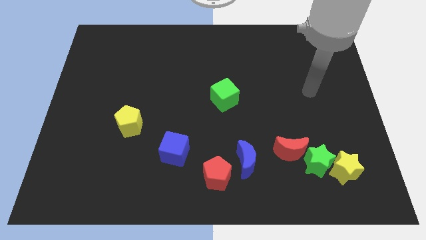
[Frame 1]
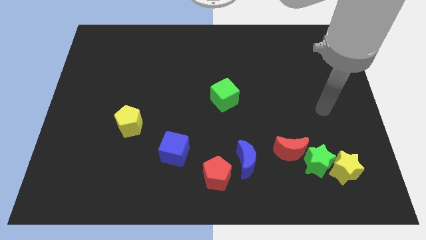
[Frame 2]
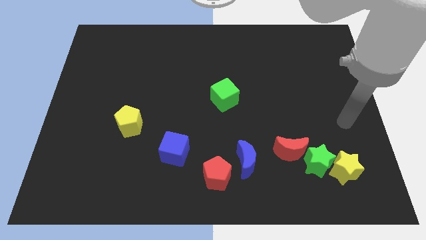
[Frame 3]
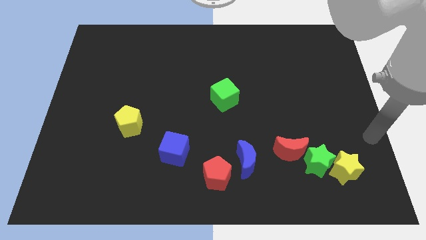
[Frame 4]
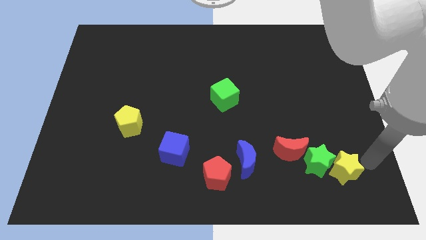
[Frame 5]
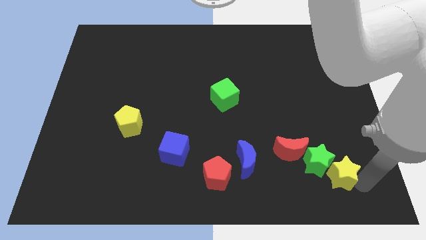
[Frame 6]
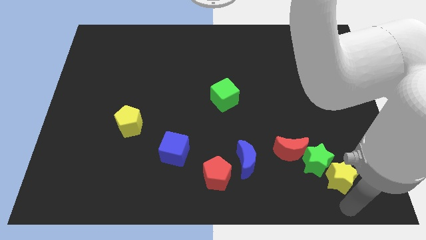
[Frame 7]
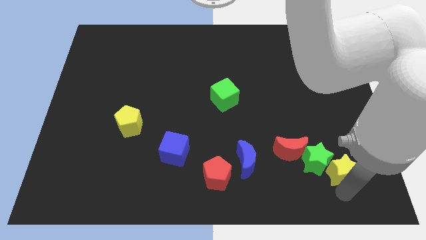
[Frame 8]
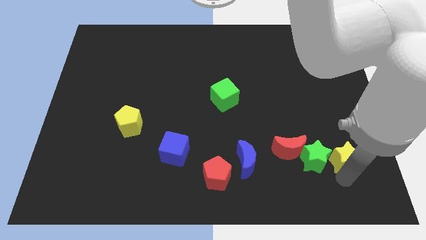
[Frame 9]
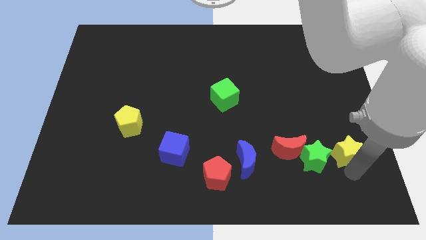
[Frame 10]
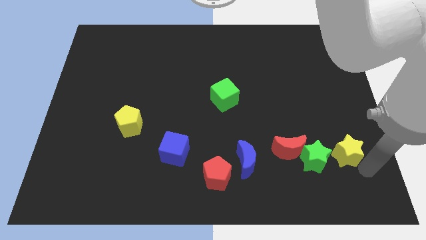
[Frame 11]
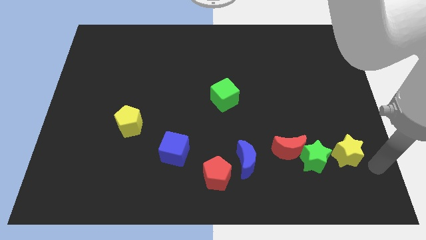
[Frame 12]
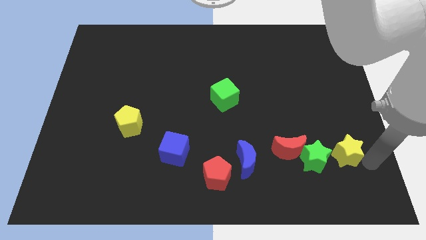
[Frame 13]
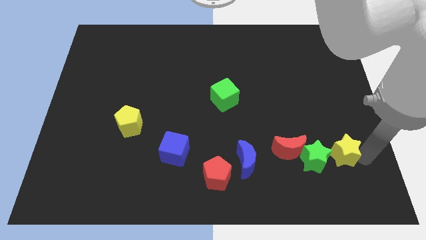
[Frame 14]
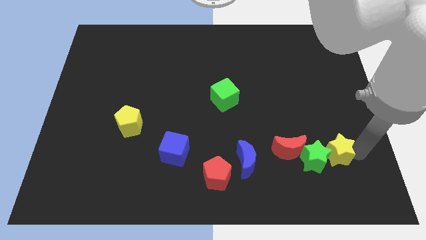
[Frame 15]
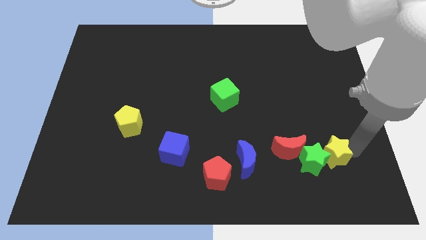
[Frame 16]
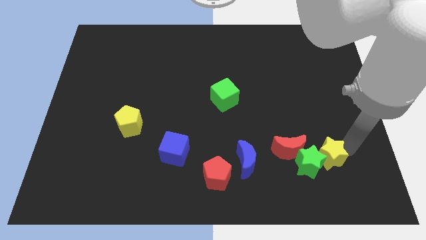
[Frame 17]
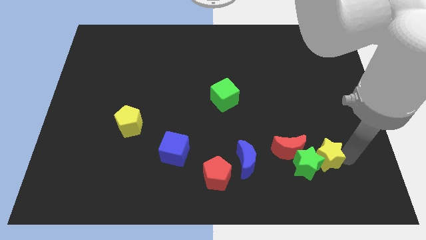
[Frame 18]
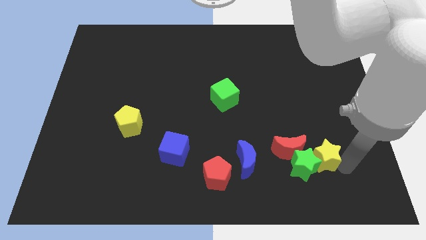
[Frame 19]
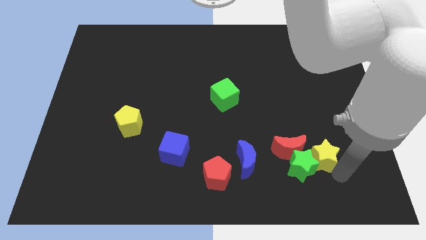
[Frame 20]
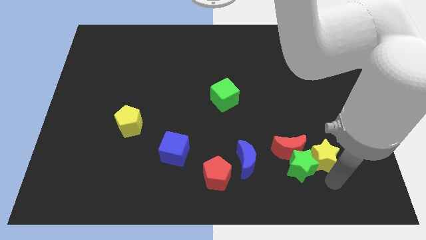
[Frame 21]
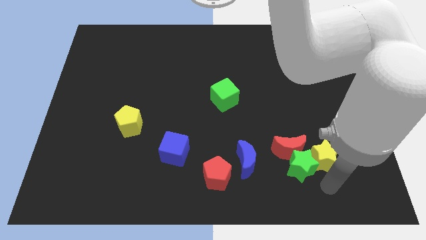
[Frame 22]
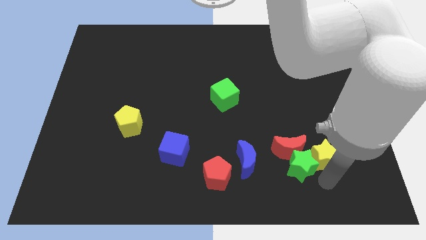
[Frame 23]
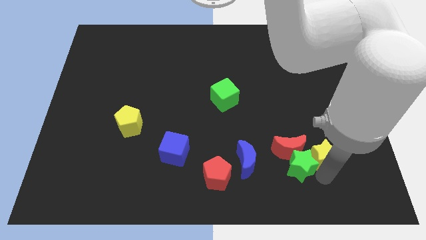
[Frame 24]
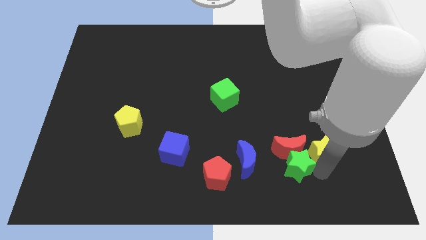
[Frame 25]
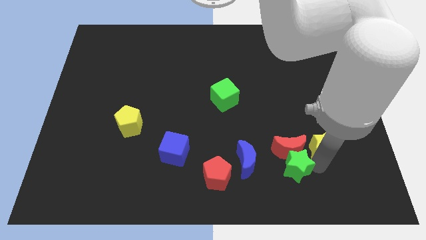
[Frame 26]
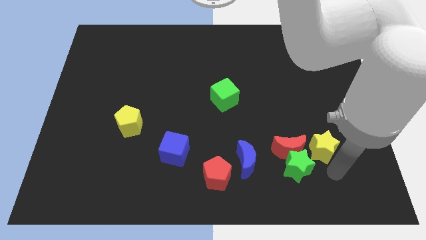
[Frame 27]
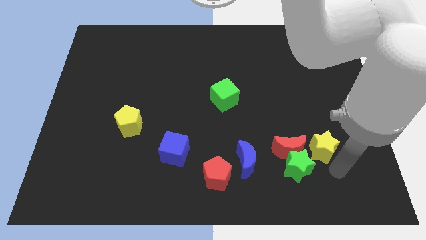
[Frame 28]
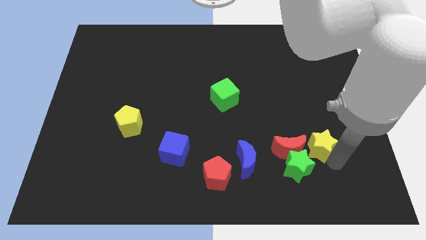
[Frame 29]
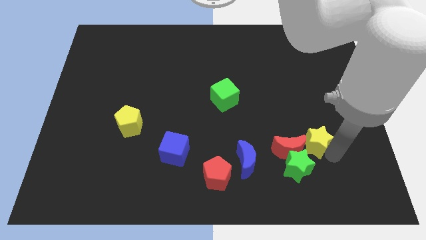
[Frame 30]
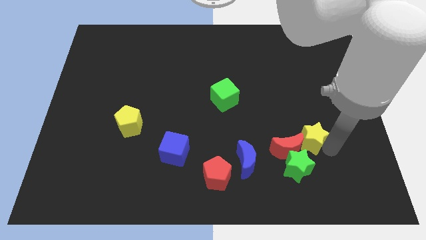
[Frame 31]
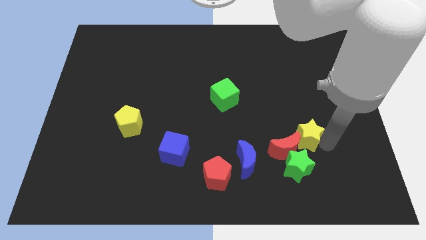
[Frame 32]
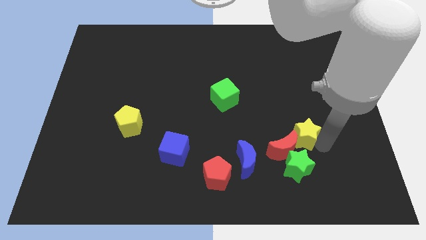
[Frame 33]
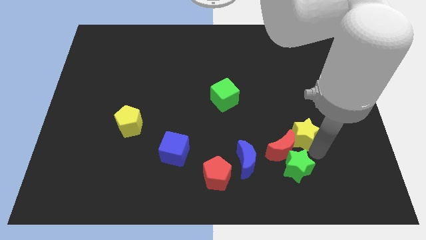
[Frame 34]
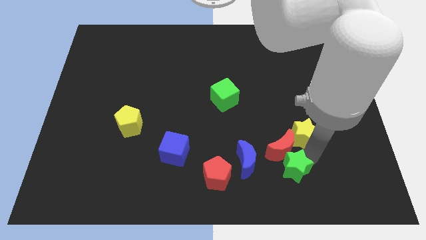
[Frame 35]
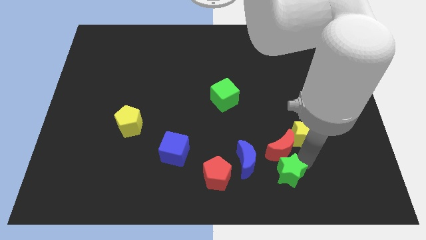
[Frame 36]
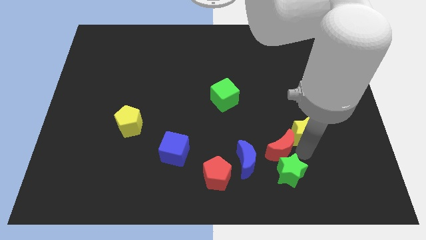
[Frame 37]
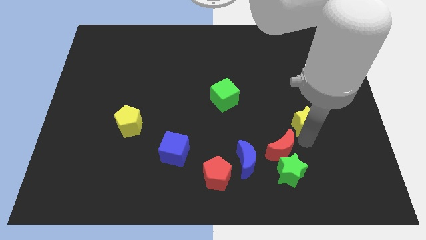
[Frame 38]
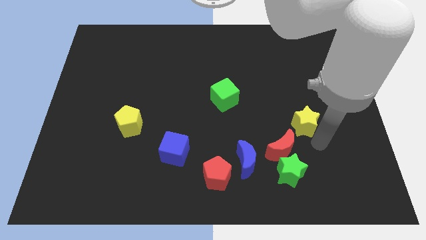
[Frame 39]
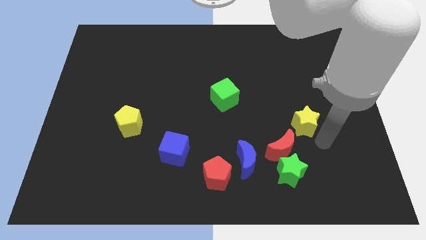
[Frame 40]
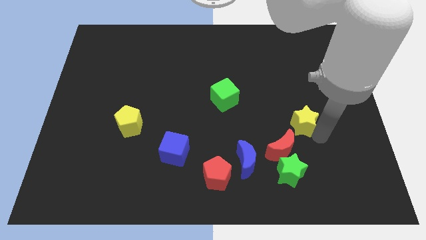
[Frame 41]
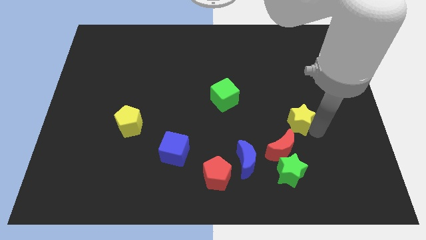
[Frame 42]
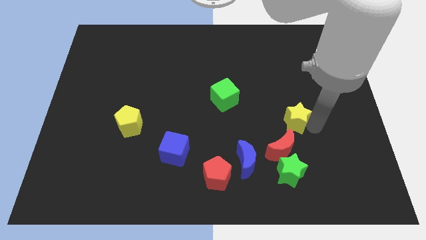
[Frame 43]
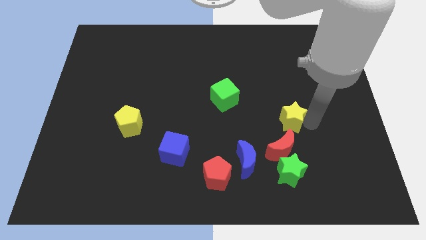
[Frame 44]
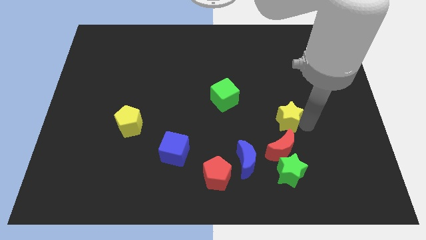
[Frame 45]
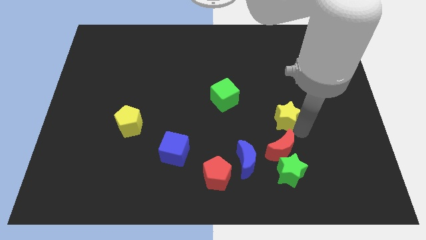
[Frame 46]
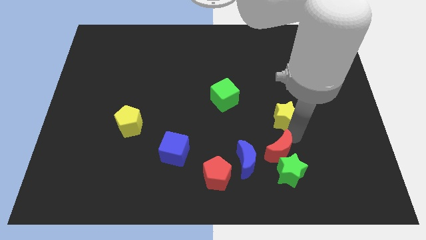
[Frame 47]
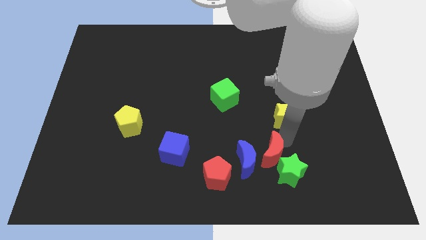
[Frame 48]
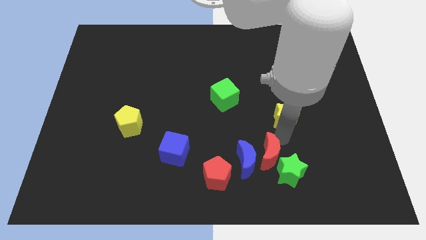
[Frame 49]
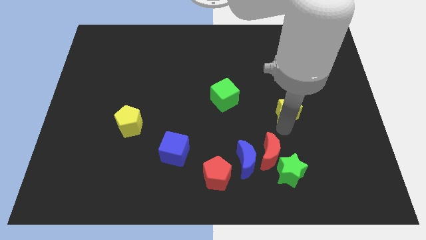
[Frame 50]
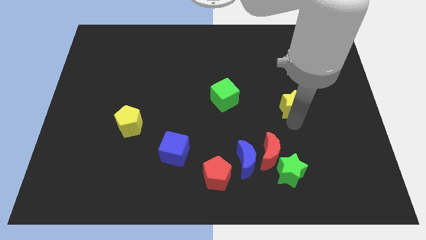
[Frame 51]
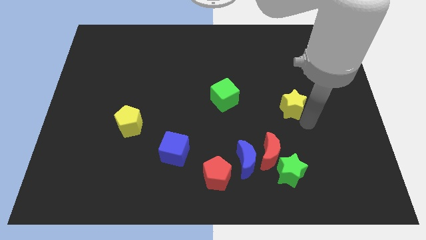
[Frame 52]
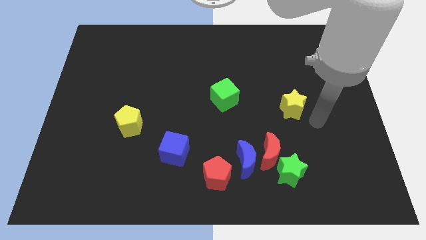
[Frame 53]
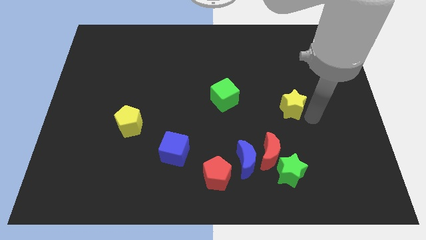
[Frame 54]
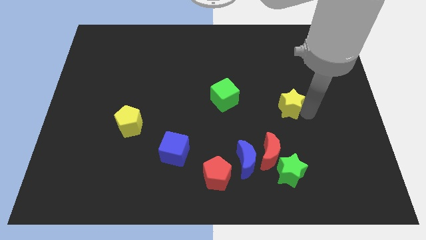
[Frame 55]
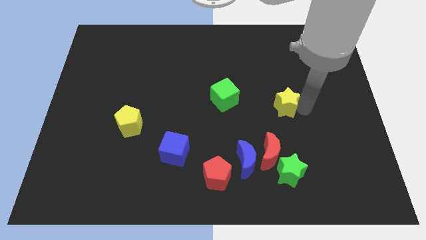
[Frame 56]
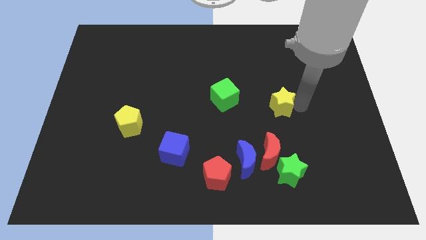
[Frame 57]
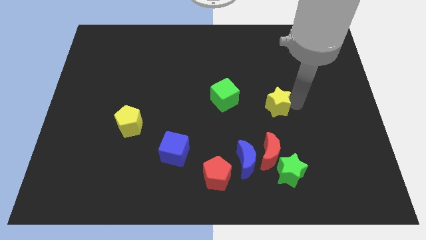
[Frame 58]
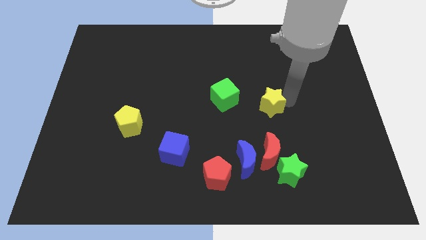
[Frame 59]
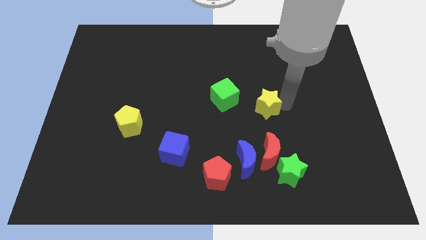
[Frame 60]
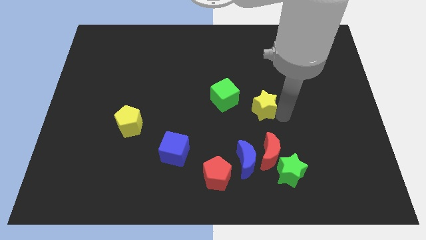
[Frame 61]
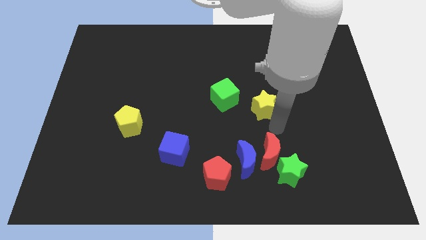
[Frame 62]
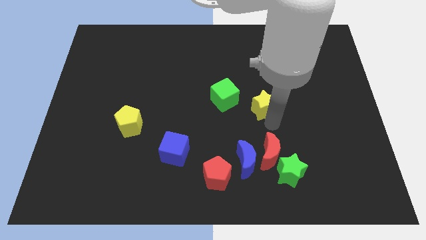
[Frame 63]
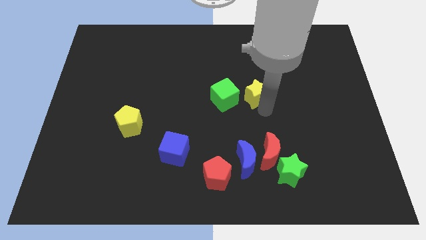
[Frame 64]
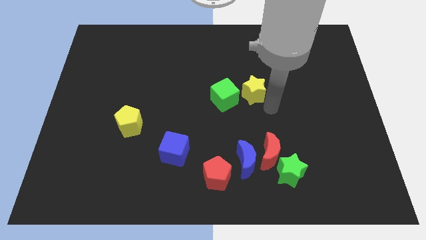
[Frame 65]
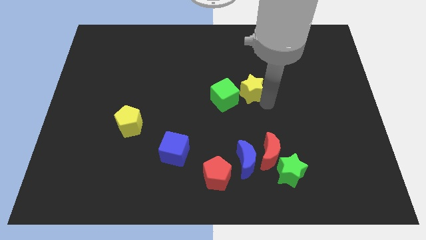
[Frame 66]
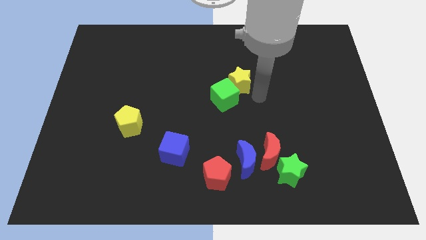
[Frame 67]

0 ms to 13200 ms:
slide the yellow star above the green cube
